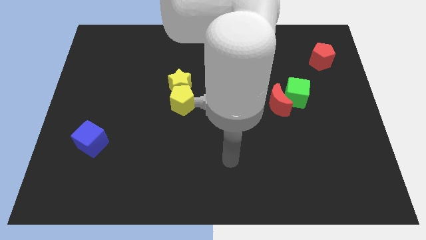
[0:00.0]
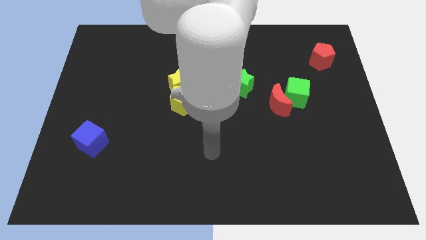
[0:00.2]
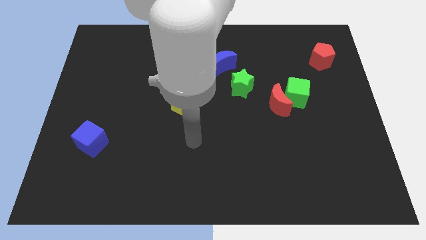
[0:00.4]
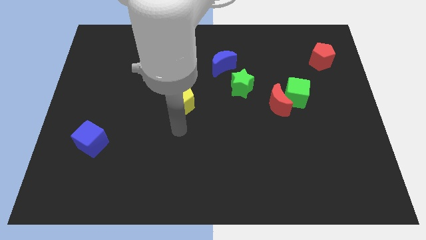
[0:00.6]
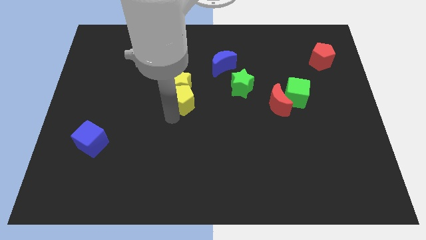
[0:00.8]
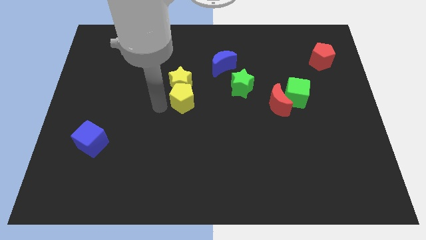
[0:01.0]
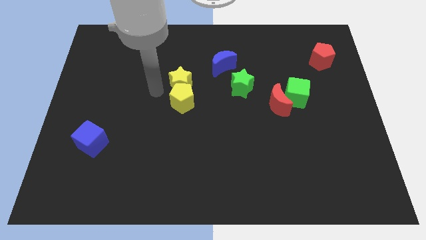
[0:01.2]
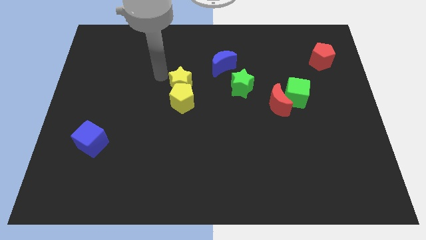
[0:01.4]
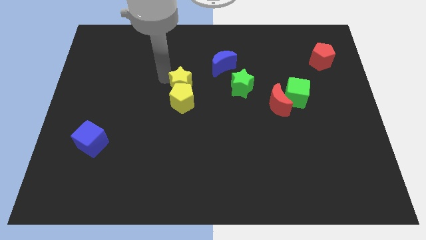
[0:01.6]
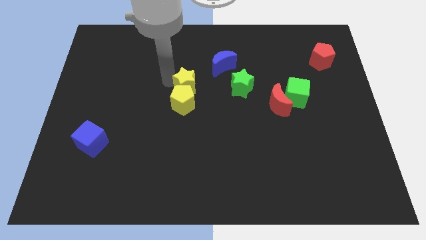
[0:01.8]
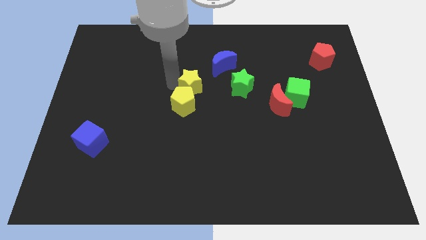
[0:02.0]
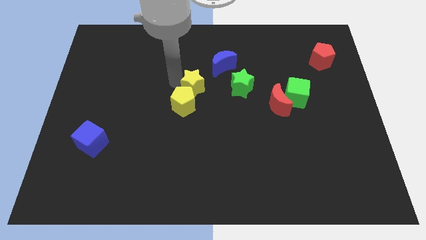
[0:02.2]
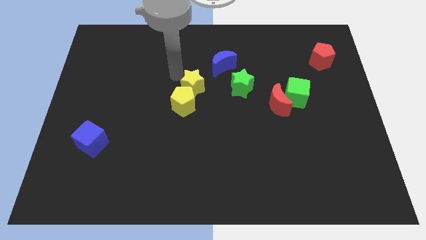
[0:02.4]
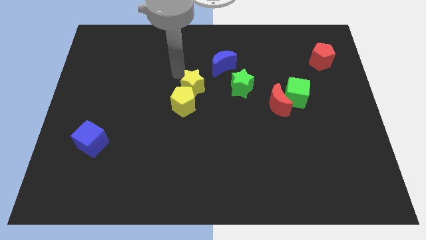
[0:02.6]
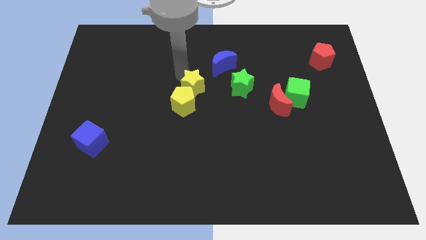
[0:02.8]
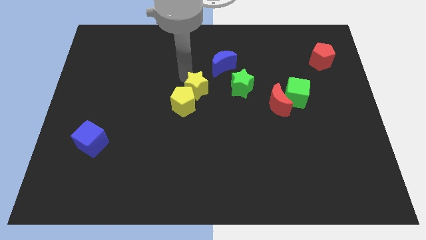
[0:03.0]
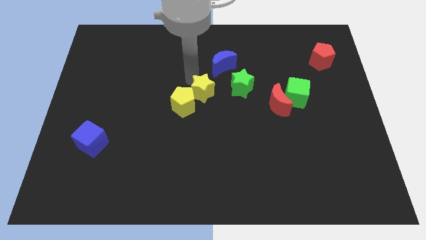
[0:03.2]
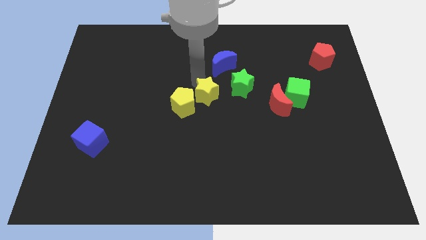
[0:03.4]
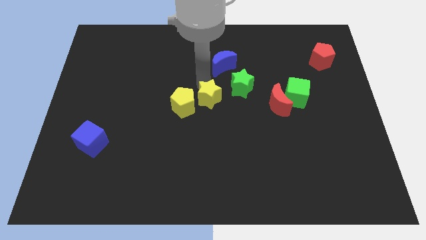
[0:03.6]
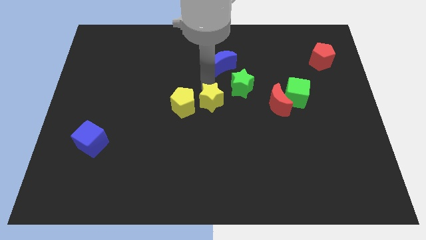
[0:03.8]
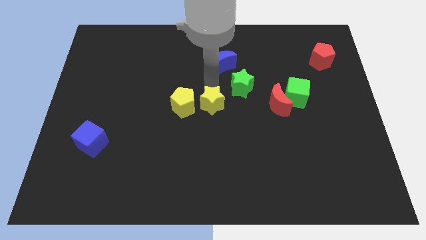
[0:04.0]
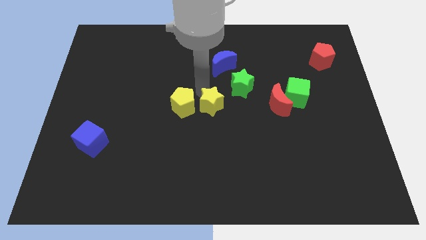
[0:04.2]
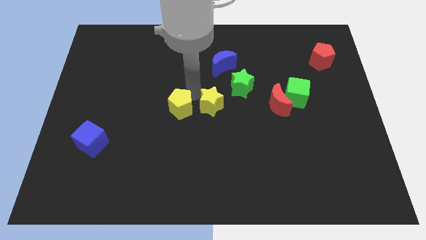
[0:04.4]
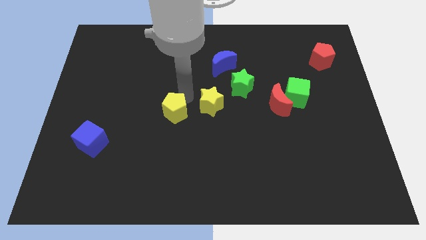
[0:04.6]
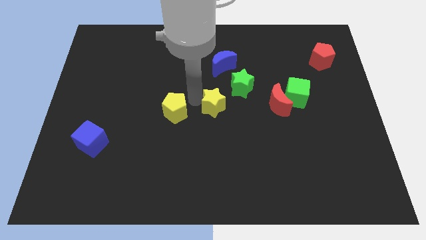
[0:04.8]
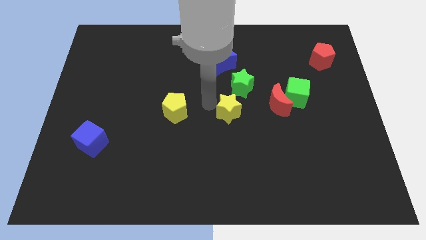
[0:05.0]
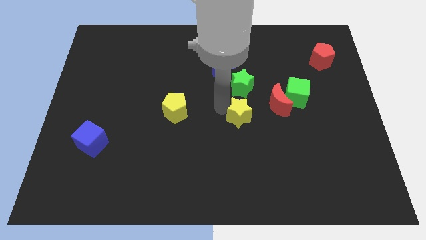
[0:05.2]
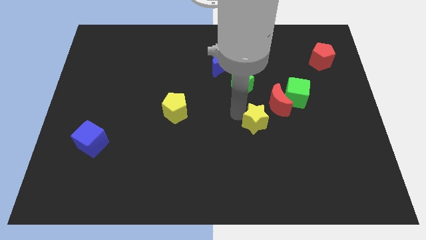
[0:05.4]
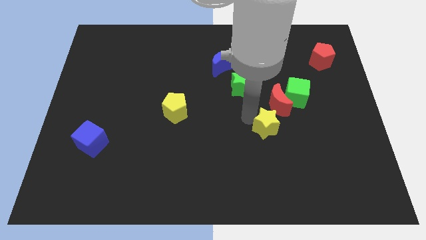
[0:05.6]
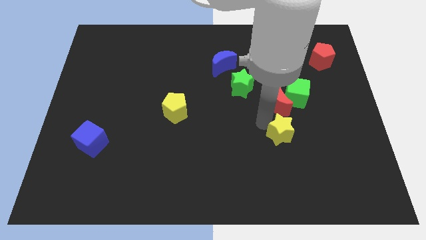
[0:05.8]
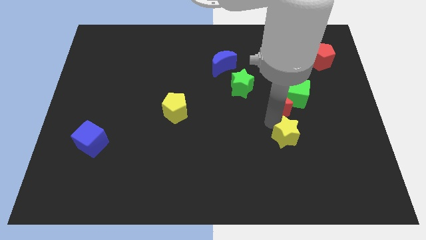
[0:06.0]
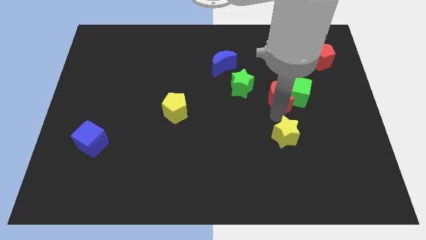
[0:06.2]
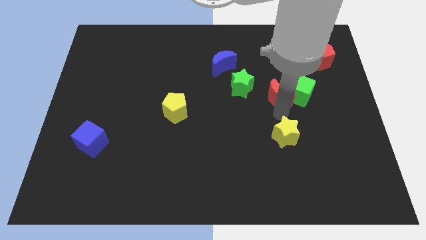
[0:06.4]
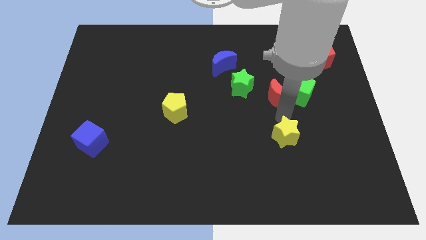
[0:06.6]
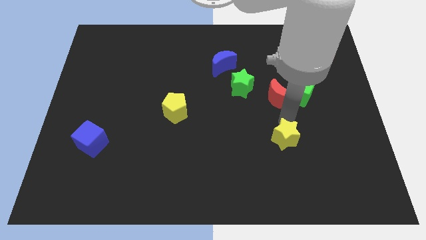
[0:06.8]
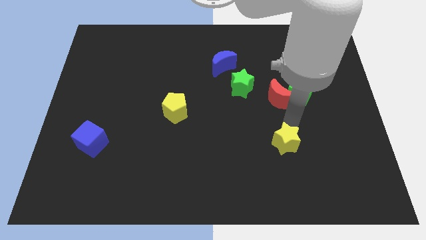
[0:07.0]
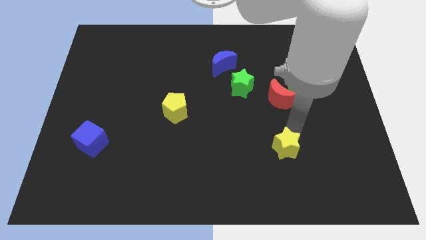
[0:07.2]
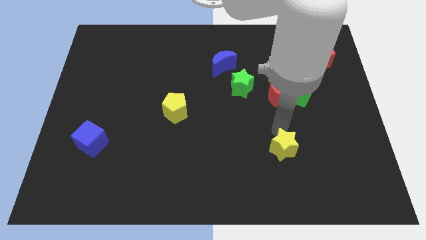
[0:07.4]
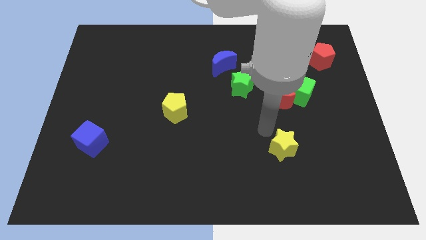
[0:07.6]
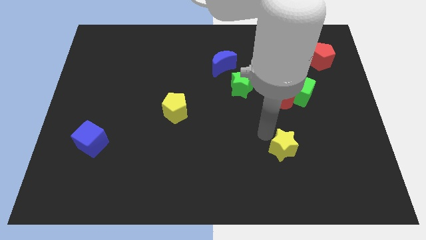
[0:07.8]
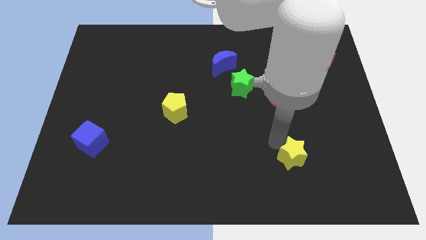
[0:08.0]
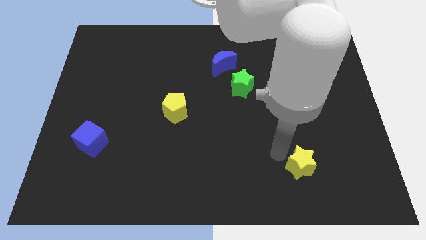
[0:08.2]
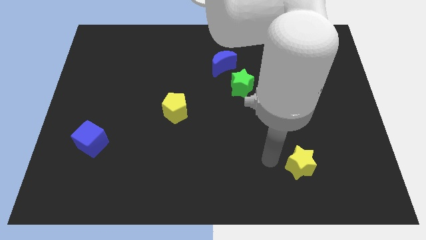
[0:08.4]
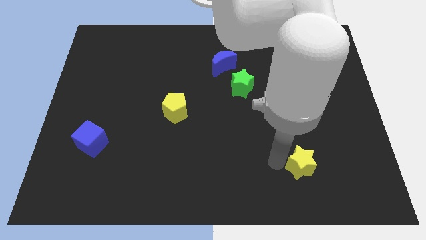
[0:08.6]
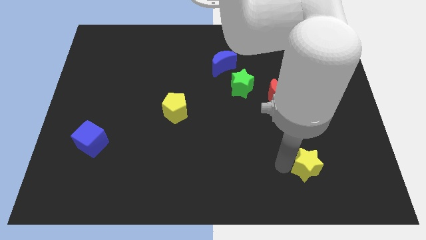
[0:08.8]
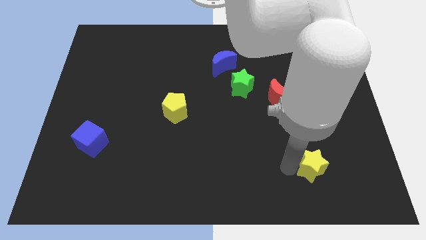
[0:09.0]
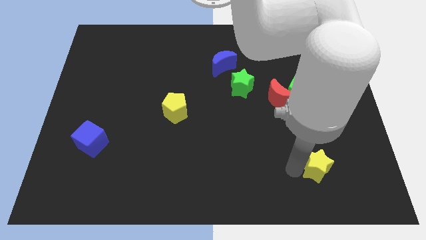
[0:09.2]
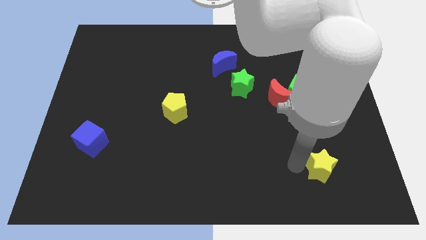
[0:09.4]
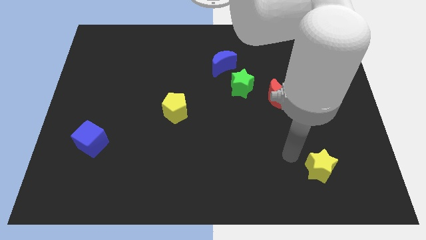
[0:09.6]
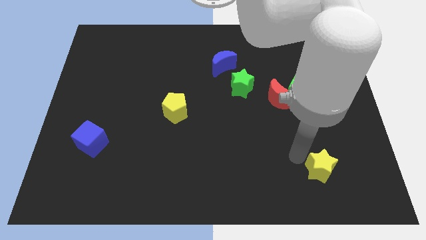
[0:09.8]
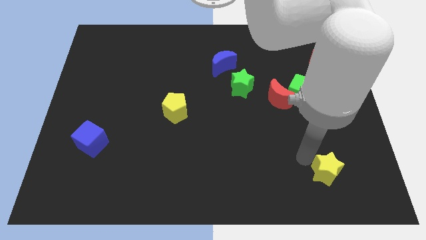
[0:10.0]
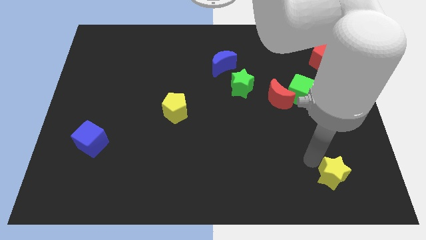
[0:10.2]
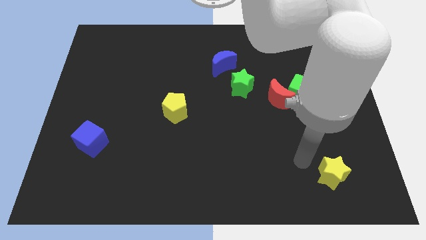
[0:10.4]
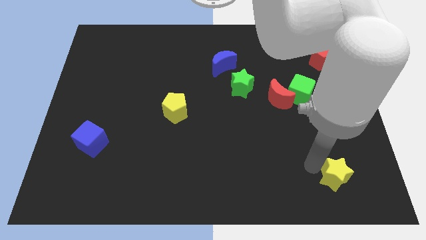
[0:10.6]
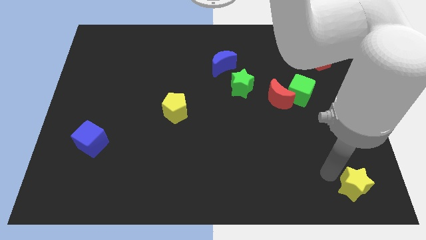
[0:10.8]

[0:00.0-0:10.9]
slide the yellow star to the bottom right

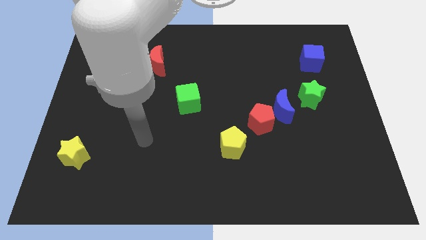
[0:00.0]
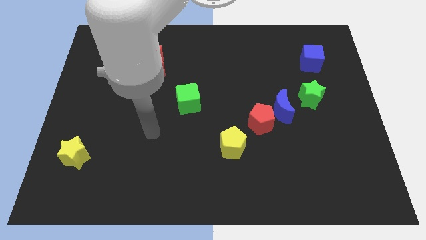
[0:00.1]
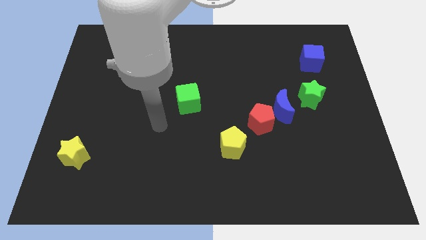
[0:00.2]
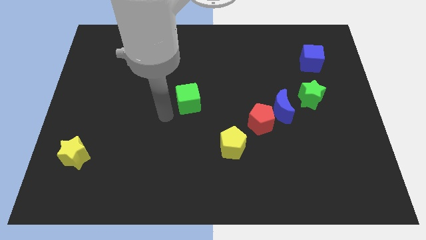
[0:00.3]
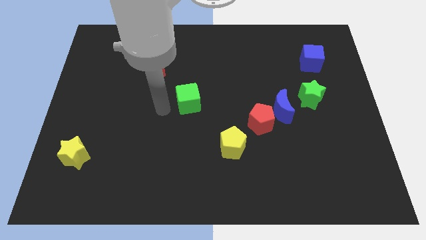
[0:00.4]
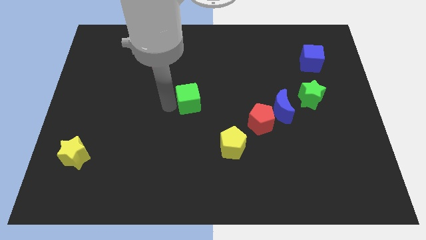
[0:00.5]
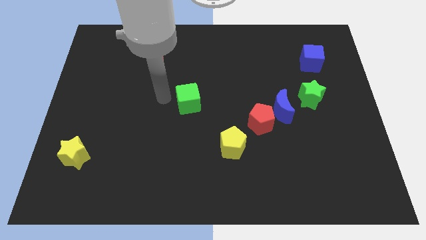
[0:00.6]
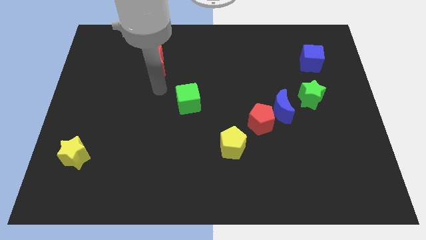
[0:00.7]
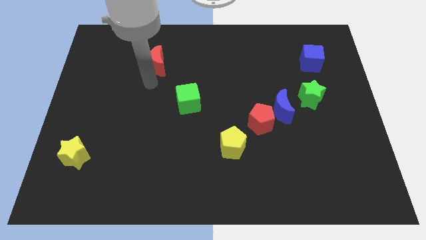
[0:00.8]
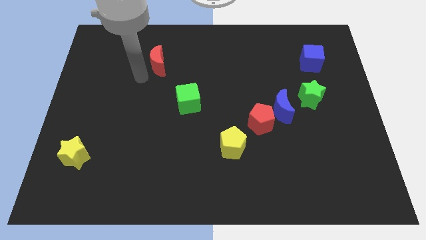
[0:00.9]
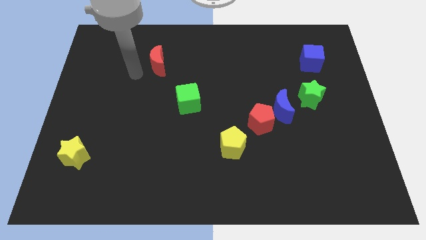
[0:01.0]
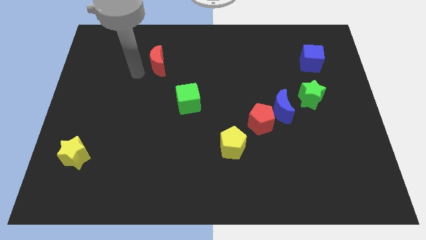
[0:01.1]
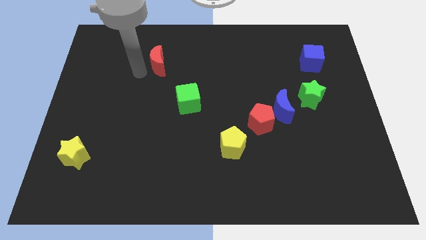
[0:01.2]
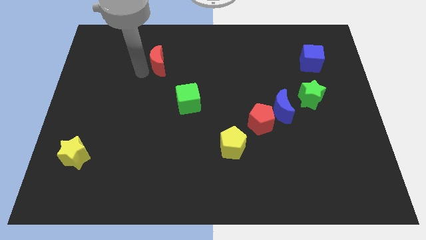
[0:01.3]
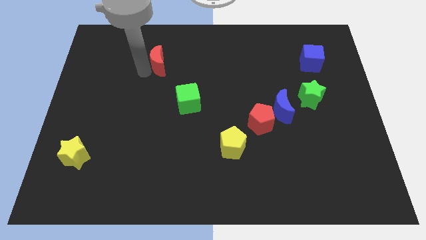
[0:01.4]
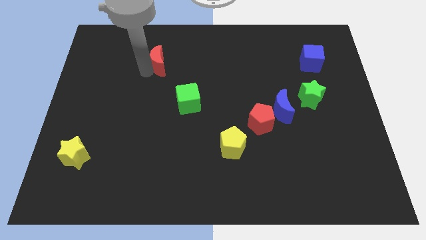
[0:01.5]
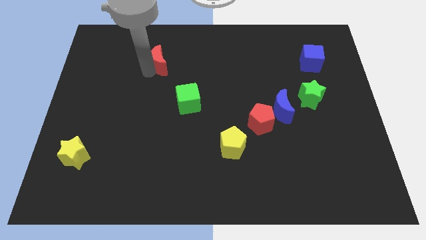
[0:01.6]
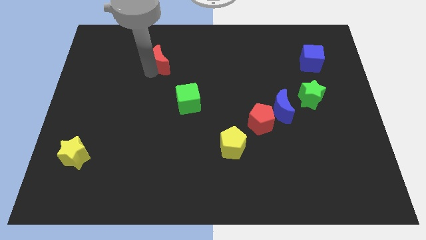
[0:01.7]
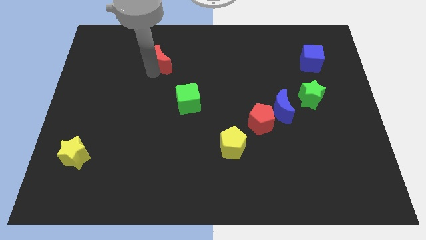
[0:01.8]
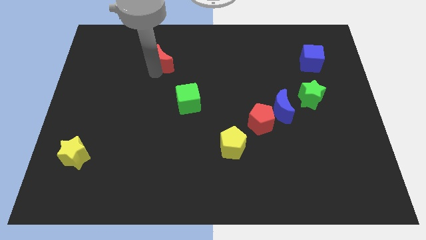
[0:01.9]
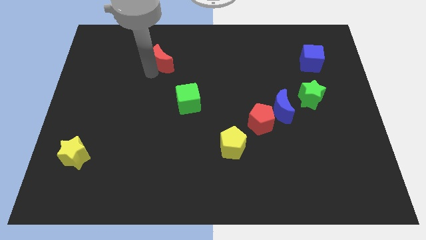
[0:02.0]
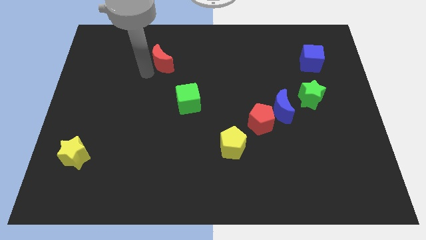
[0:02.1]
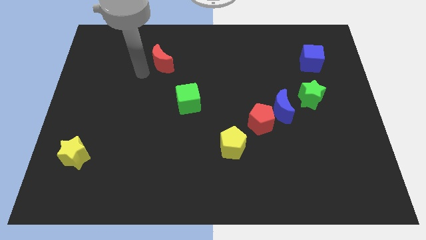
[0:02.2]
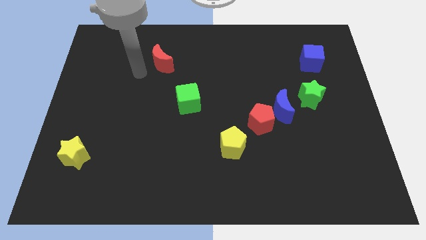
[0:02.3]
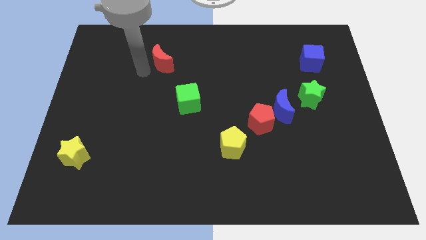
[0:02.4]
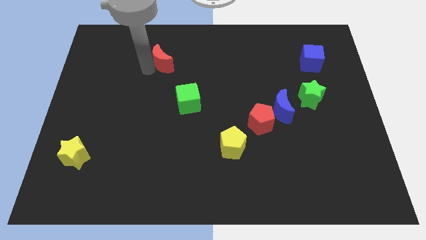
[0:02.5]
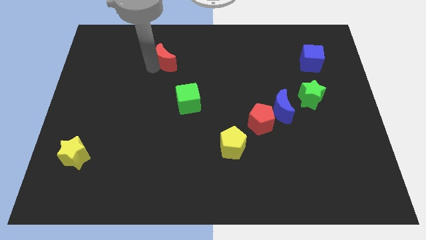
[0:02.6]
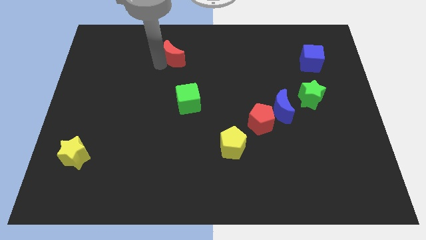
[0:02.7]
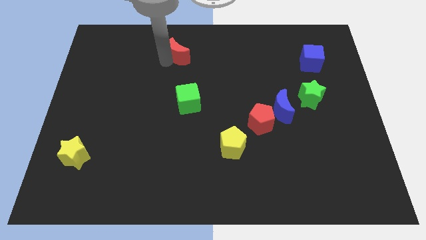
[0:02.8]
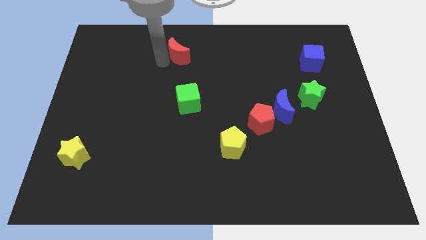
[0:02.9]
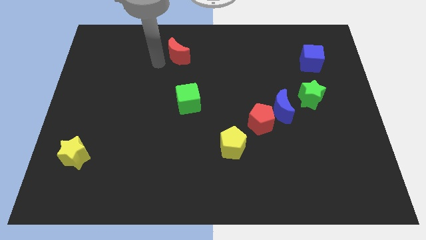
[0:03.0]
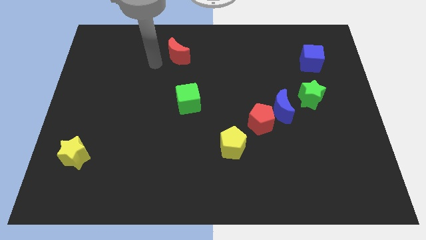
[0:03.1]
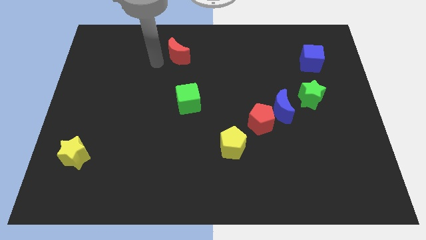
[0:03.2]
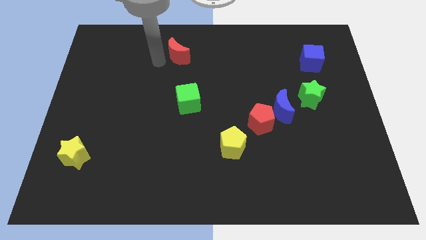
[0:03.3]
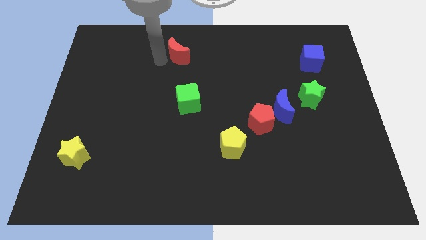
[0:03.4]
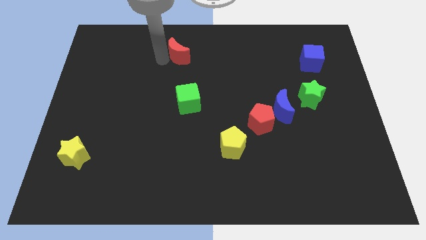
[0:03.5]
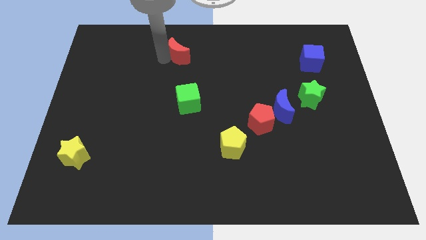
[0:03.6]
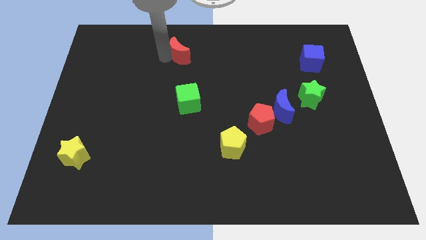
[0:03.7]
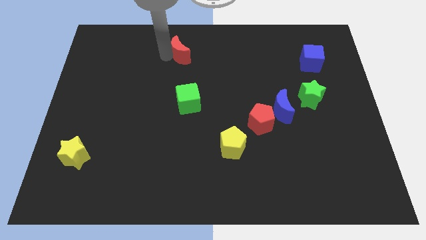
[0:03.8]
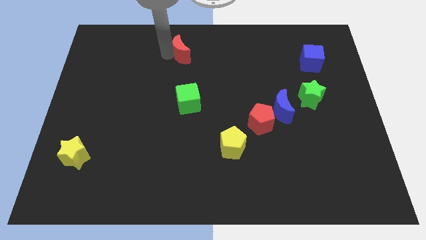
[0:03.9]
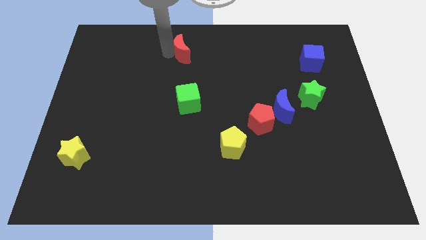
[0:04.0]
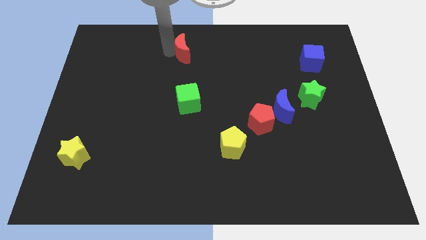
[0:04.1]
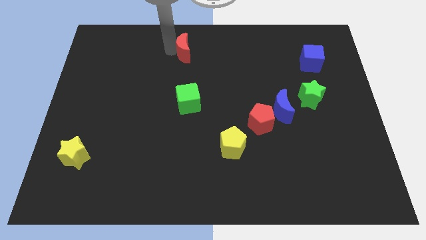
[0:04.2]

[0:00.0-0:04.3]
put the red moon to the towards your base
